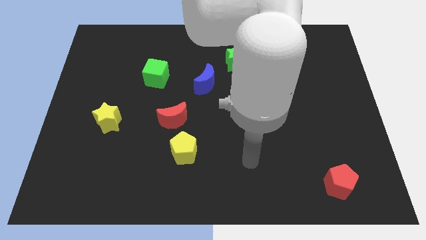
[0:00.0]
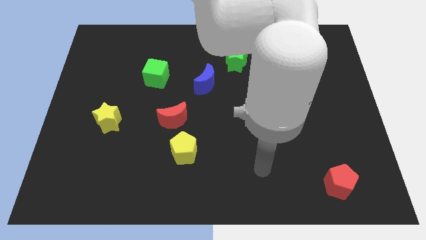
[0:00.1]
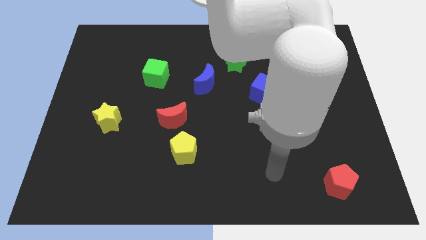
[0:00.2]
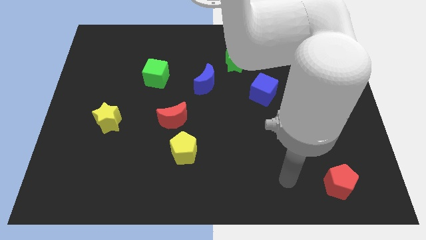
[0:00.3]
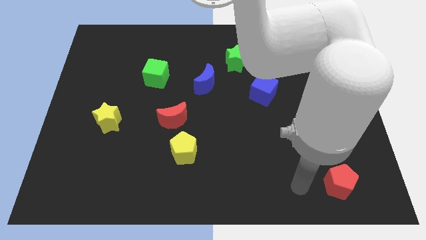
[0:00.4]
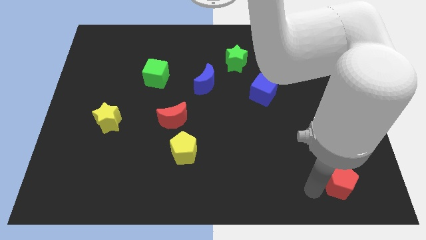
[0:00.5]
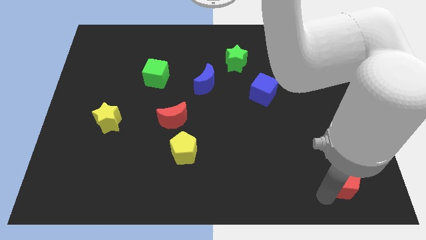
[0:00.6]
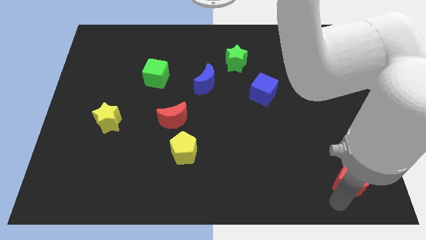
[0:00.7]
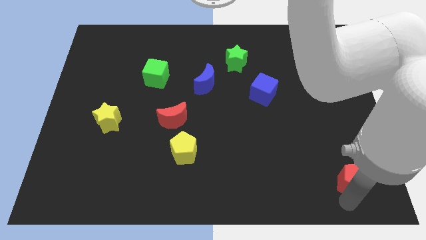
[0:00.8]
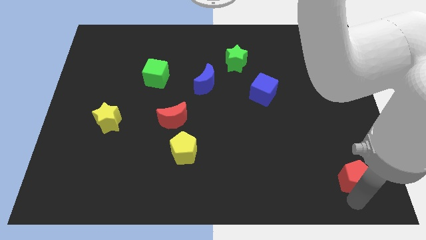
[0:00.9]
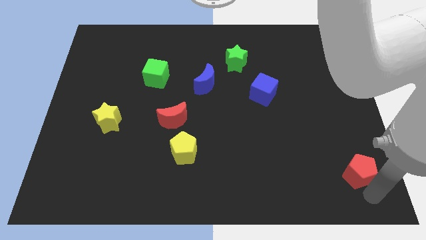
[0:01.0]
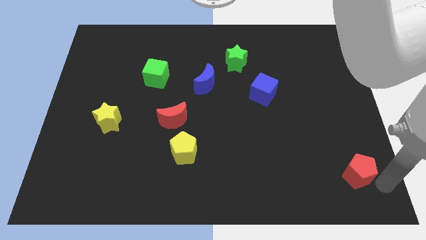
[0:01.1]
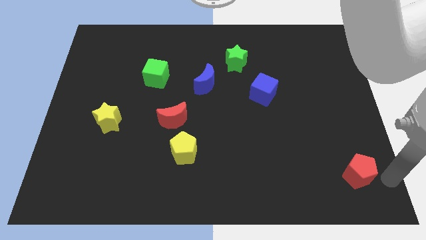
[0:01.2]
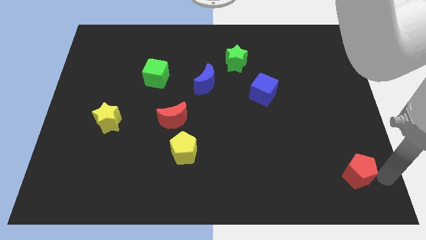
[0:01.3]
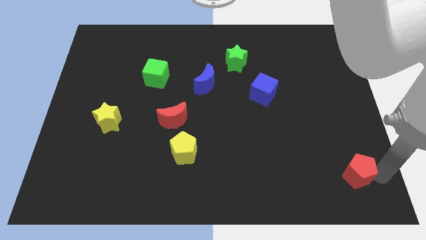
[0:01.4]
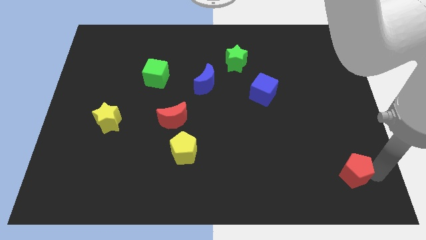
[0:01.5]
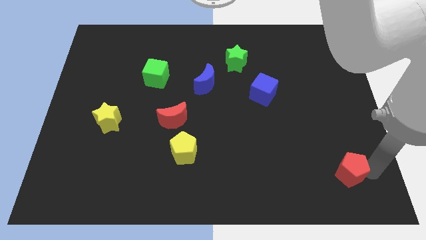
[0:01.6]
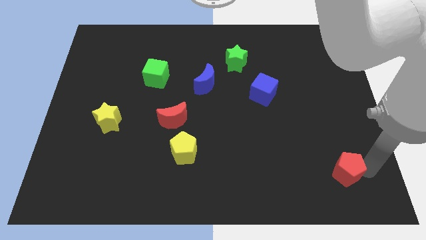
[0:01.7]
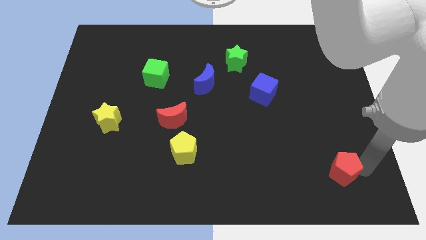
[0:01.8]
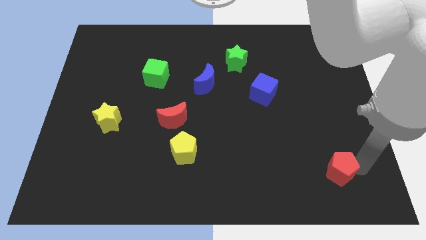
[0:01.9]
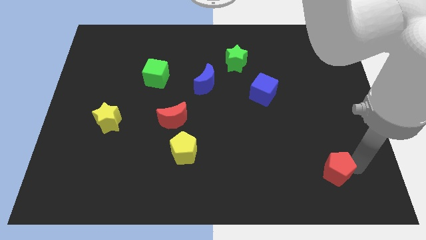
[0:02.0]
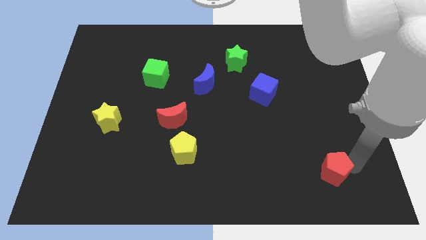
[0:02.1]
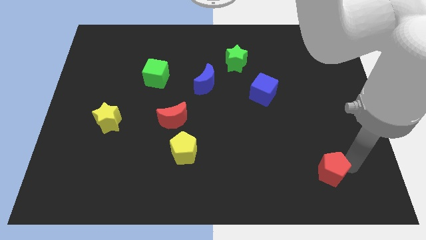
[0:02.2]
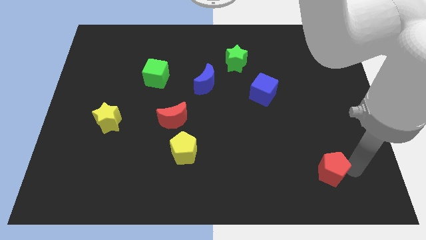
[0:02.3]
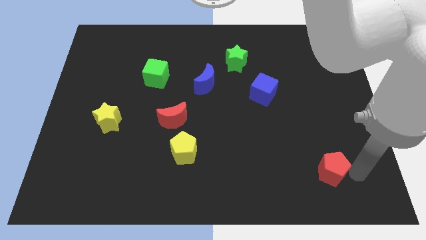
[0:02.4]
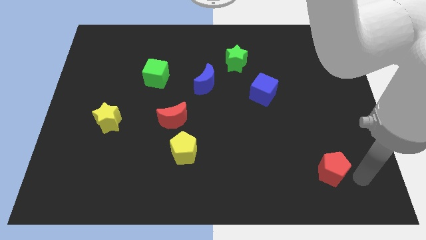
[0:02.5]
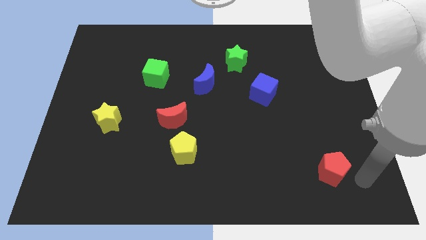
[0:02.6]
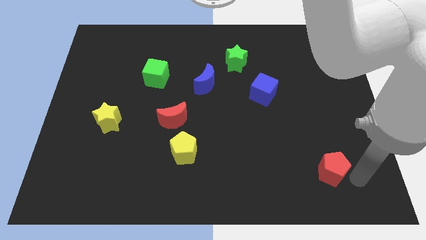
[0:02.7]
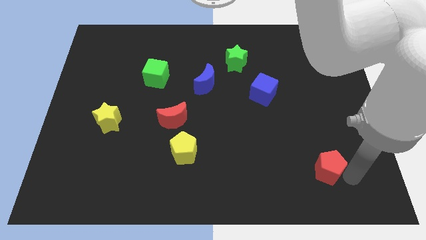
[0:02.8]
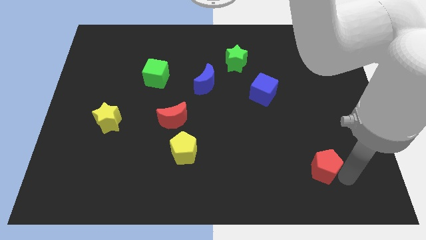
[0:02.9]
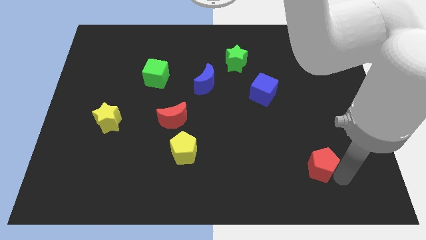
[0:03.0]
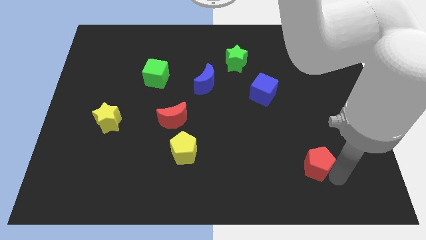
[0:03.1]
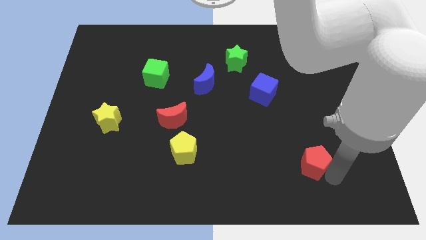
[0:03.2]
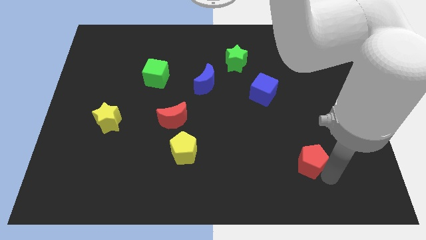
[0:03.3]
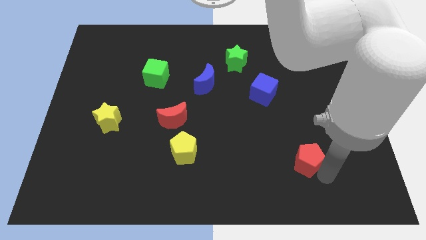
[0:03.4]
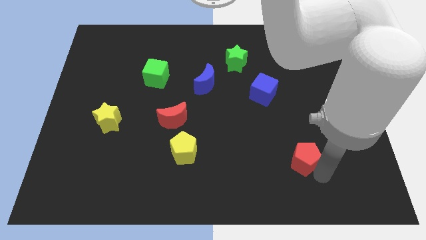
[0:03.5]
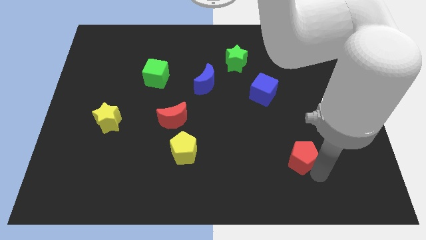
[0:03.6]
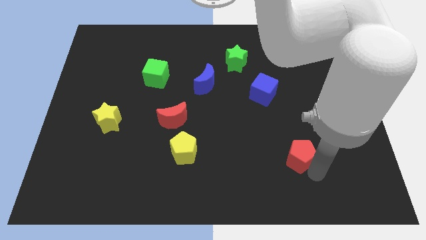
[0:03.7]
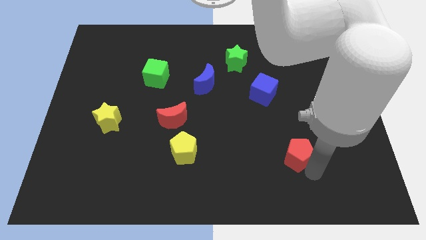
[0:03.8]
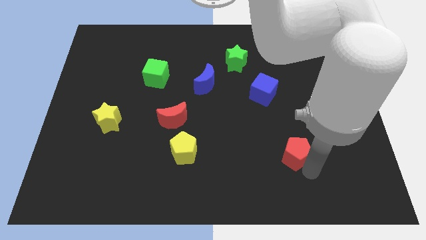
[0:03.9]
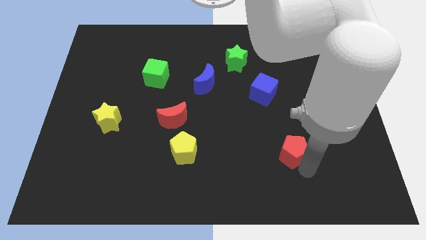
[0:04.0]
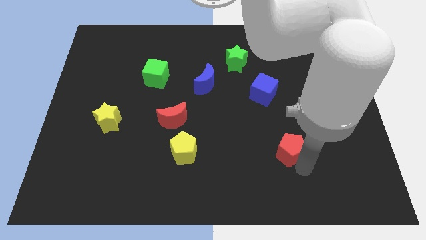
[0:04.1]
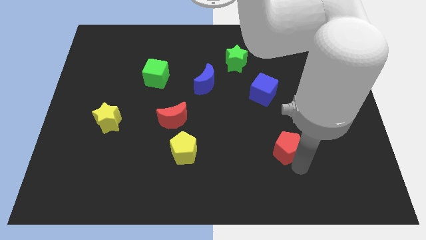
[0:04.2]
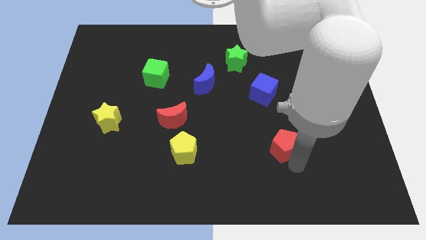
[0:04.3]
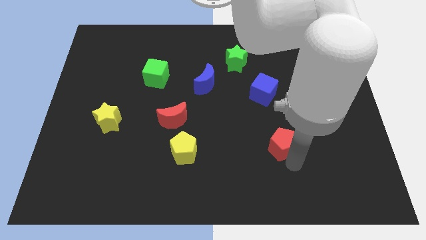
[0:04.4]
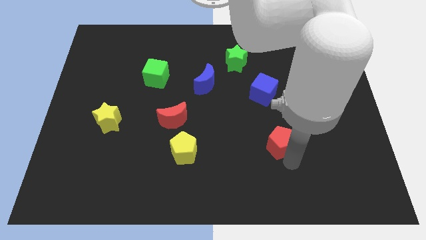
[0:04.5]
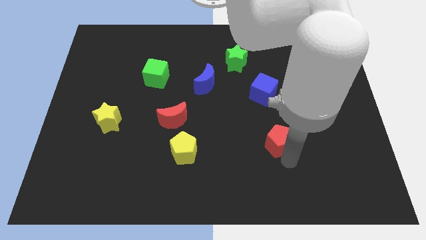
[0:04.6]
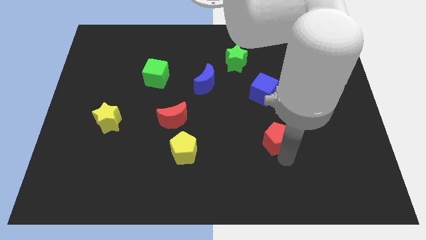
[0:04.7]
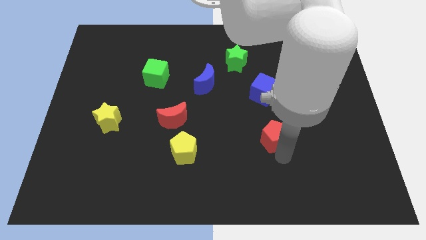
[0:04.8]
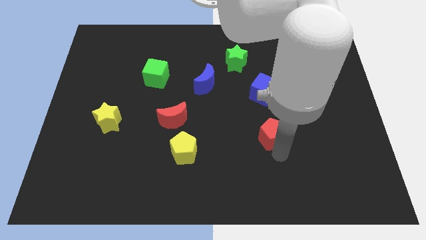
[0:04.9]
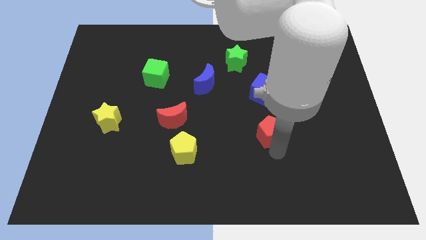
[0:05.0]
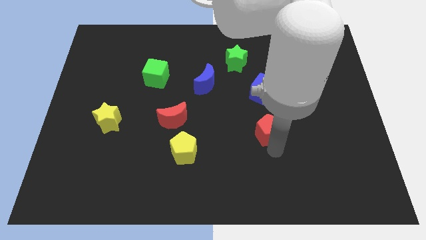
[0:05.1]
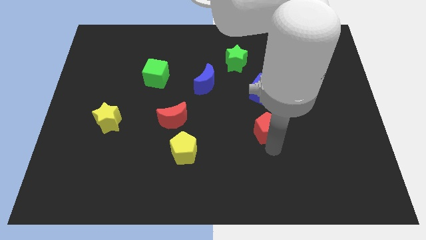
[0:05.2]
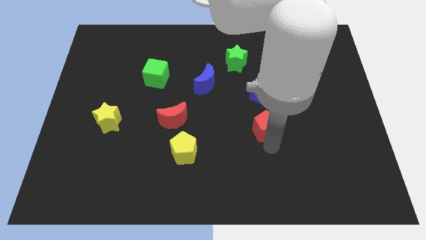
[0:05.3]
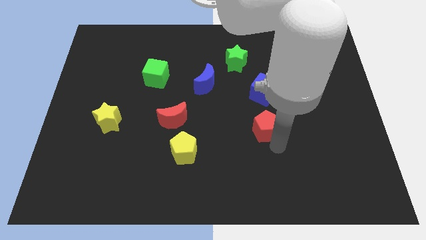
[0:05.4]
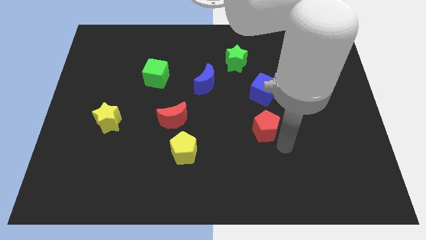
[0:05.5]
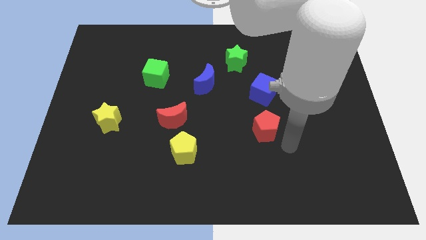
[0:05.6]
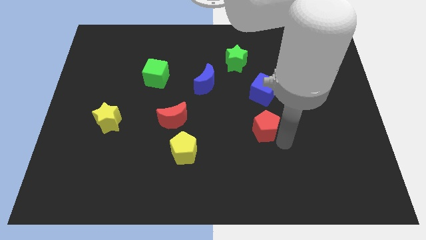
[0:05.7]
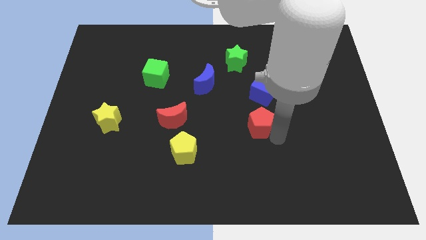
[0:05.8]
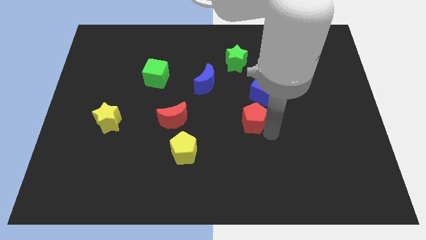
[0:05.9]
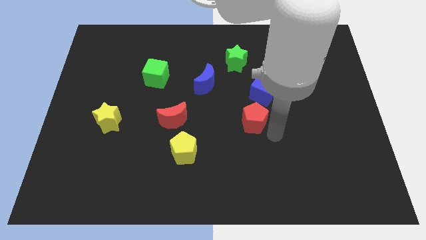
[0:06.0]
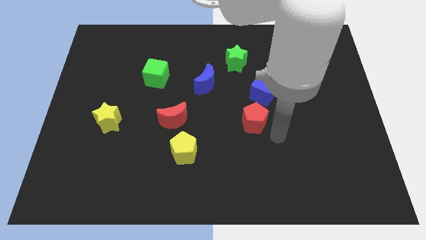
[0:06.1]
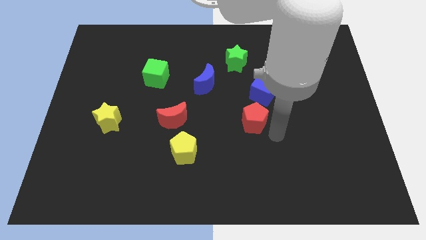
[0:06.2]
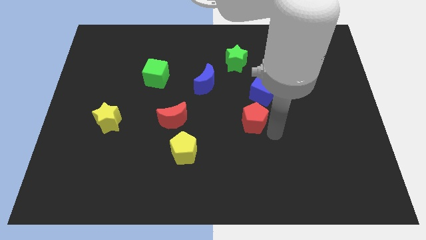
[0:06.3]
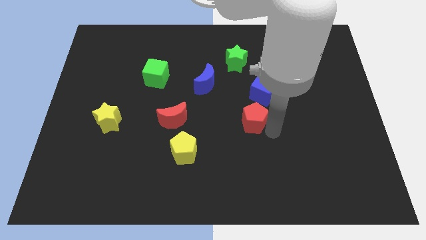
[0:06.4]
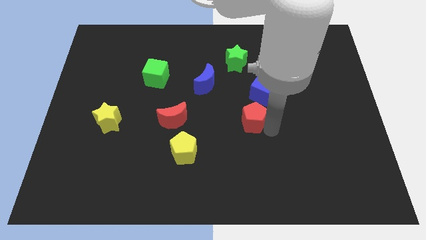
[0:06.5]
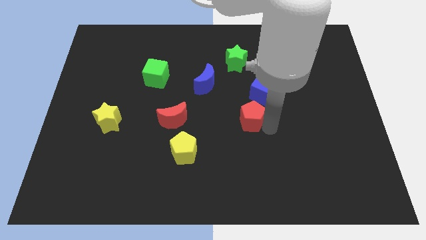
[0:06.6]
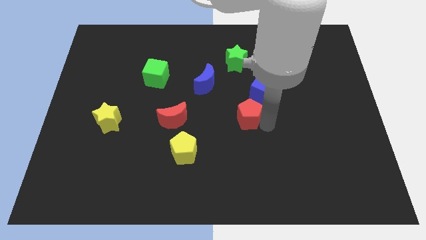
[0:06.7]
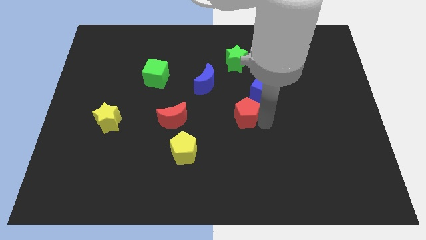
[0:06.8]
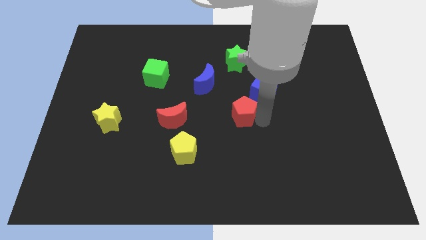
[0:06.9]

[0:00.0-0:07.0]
move the red pentagon to the bottom right side of the blue moon

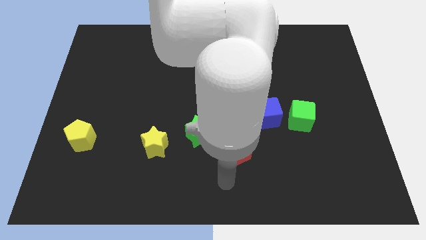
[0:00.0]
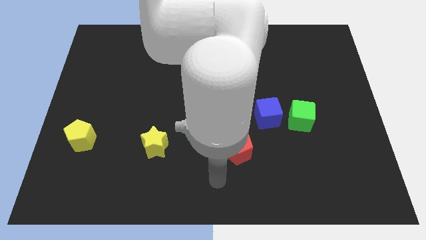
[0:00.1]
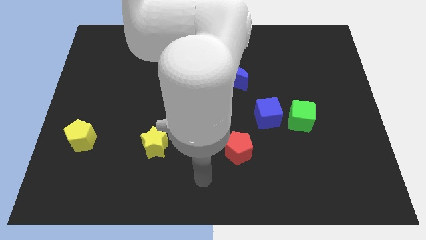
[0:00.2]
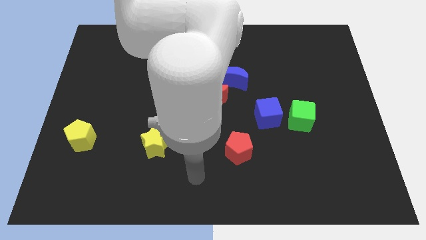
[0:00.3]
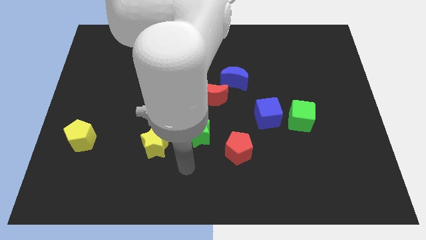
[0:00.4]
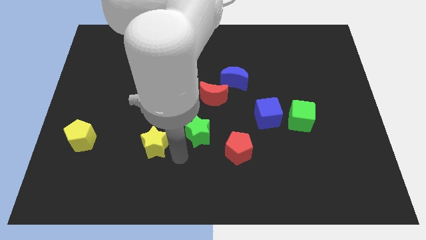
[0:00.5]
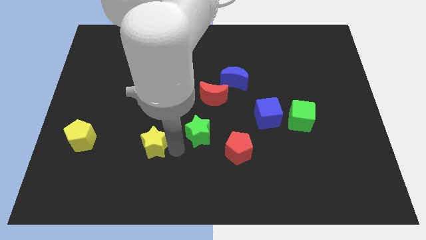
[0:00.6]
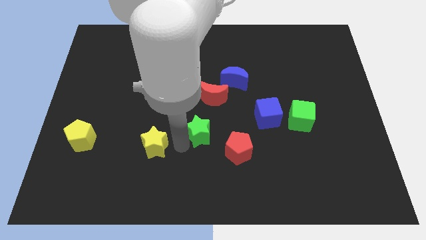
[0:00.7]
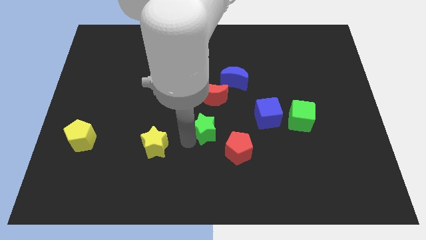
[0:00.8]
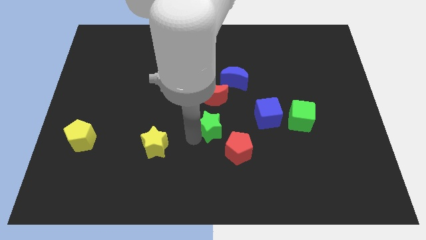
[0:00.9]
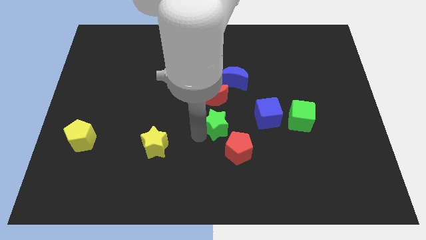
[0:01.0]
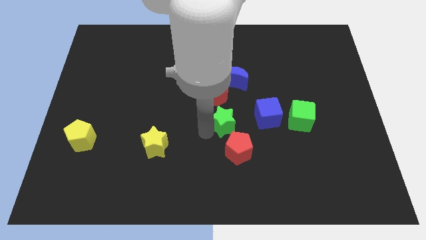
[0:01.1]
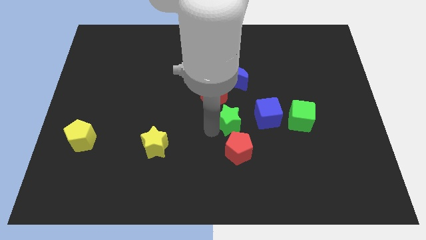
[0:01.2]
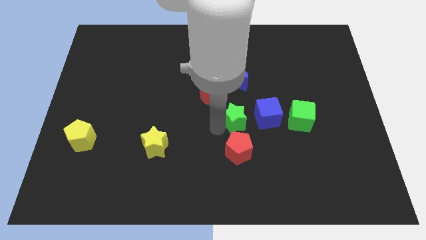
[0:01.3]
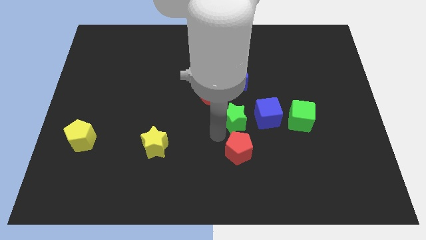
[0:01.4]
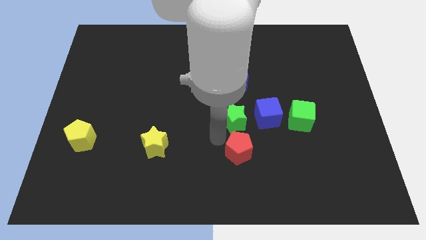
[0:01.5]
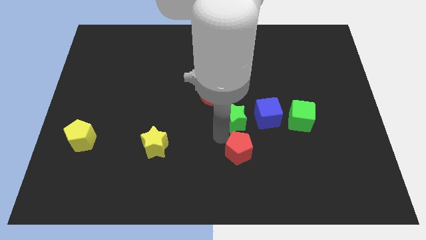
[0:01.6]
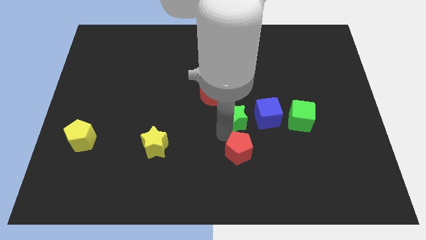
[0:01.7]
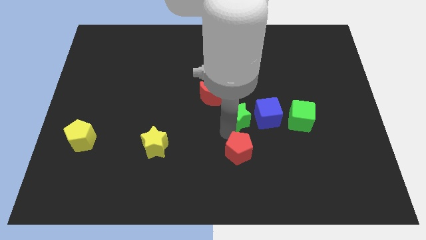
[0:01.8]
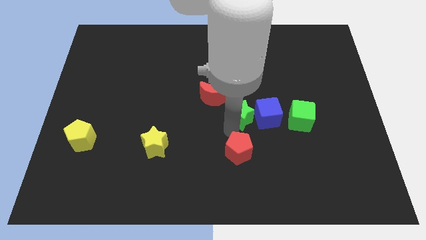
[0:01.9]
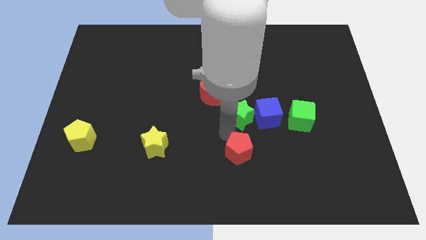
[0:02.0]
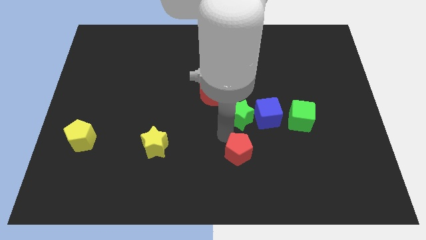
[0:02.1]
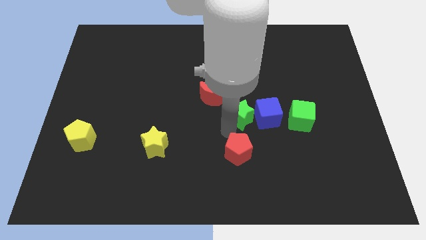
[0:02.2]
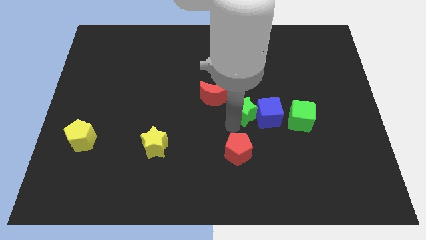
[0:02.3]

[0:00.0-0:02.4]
move the green star to the right side of the red moon
